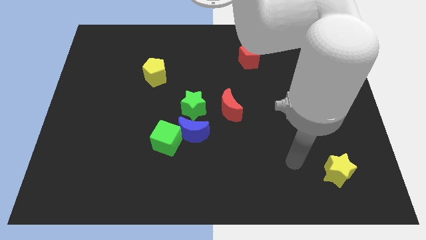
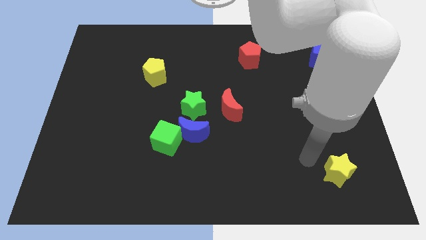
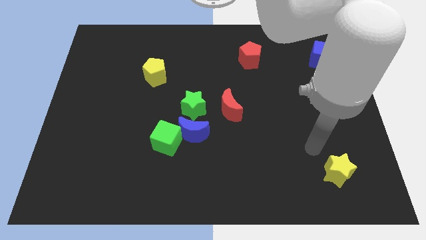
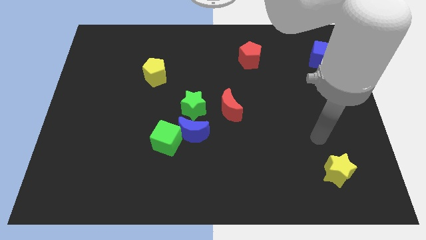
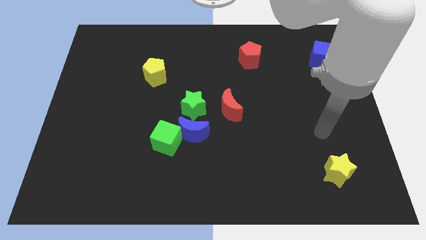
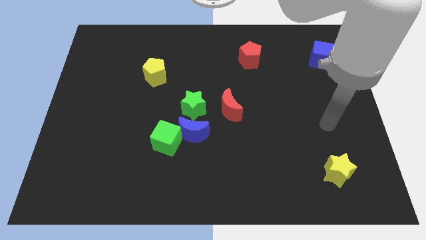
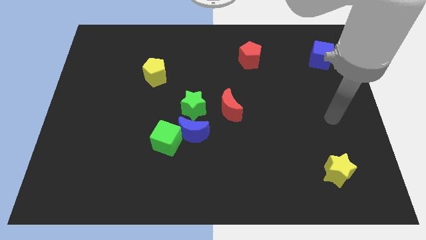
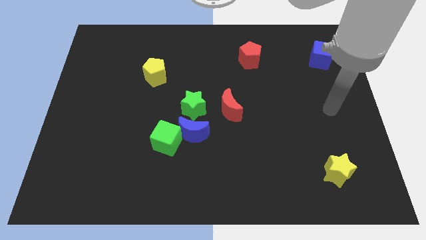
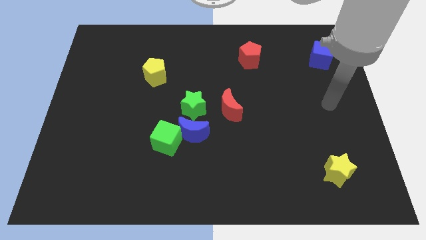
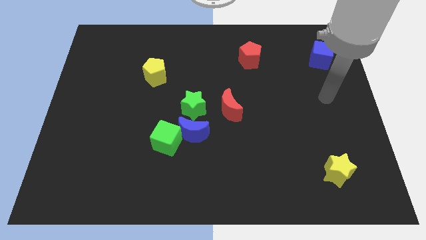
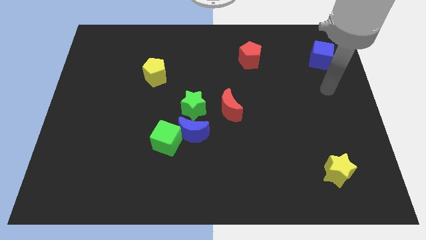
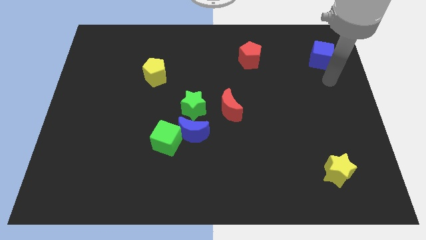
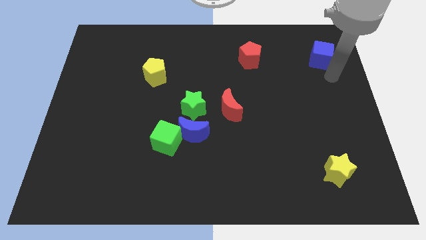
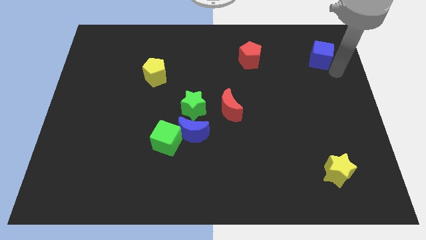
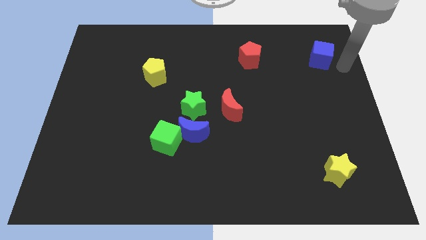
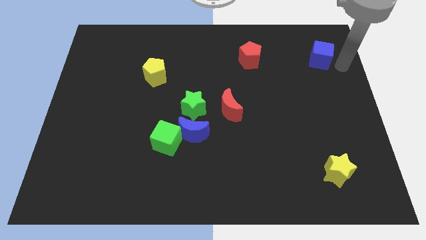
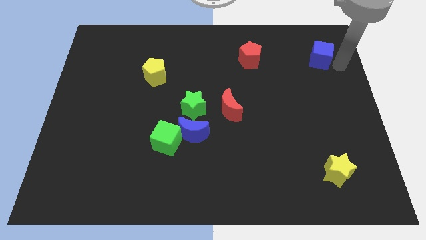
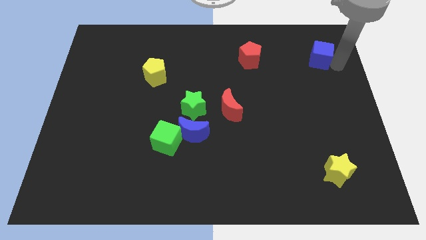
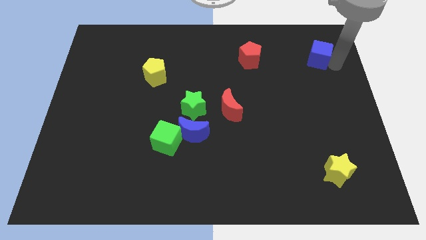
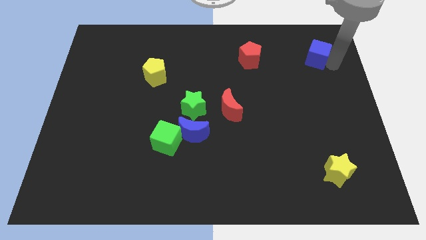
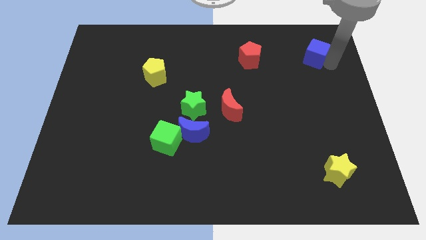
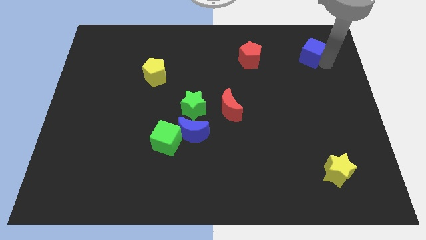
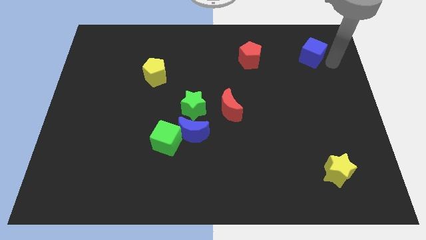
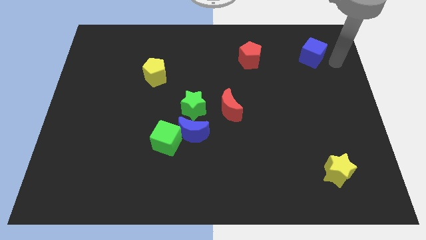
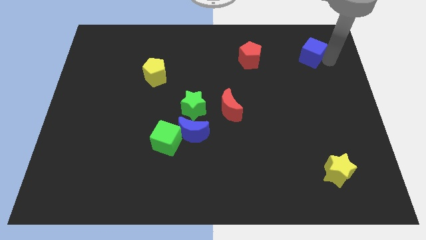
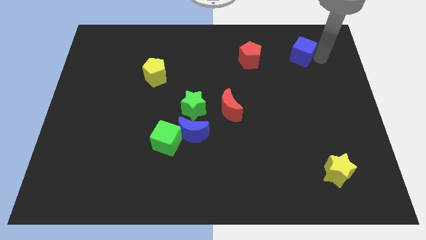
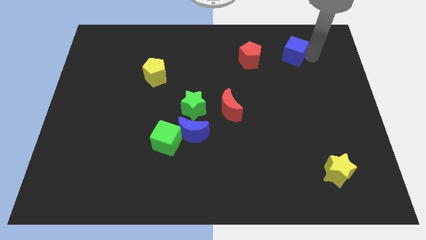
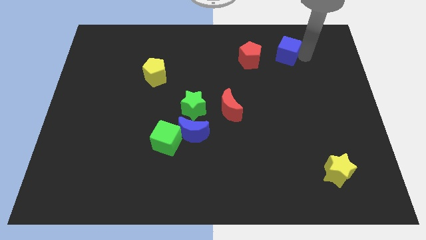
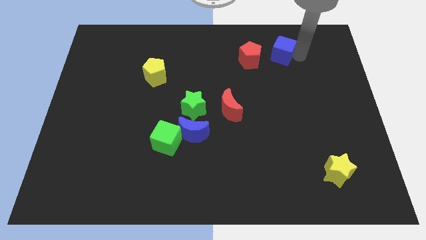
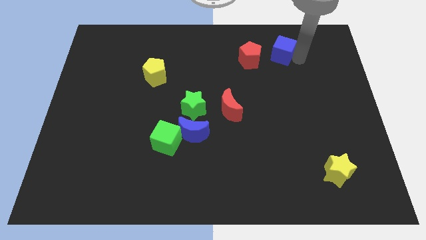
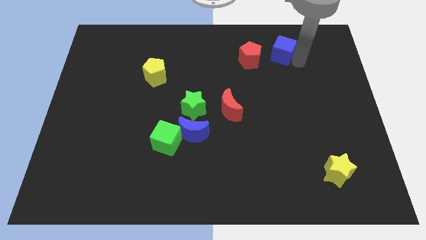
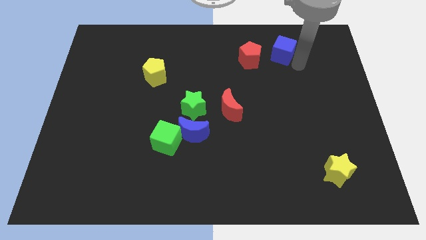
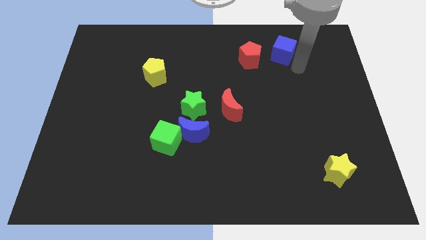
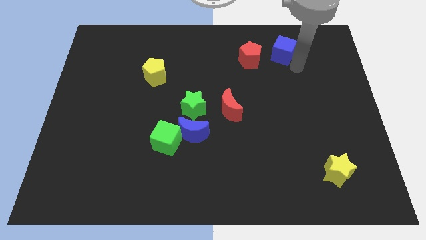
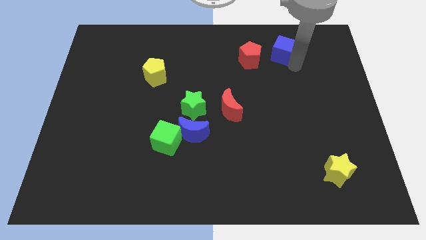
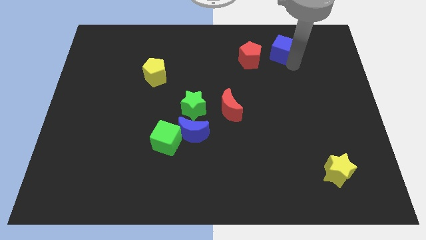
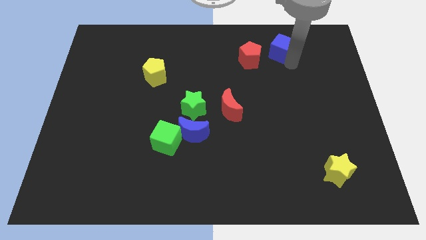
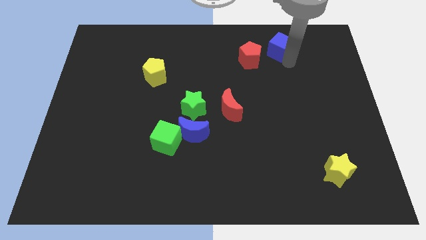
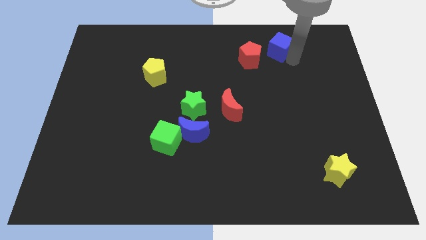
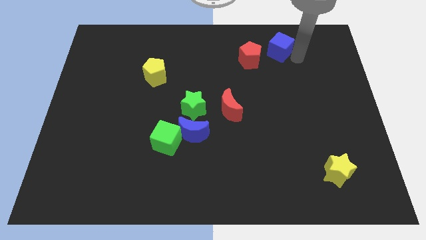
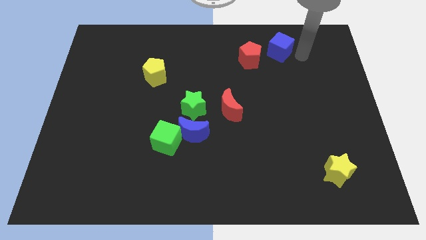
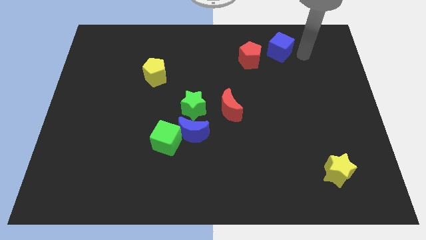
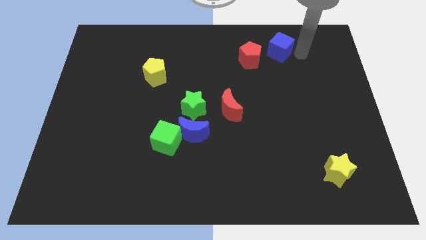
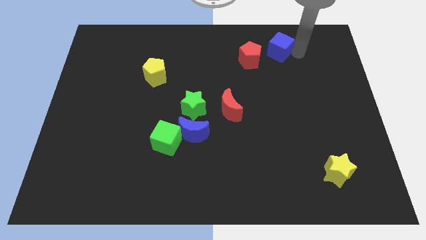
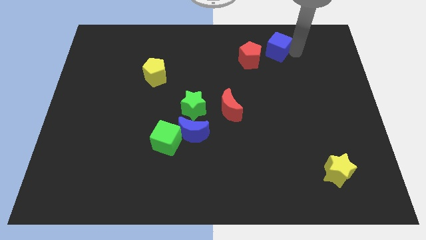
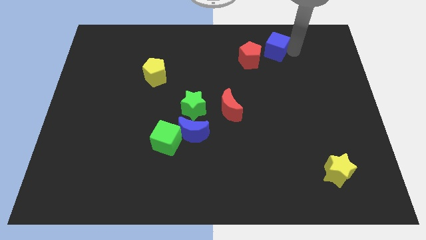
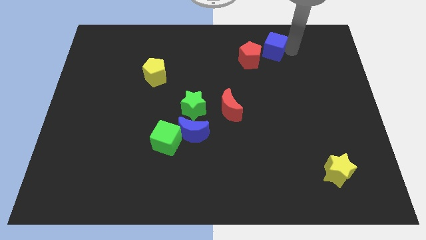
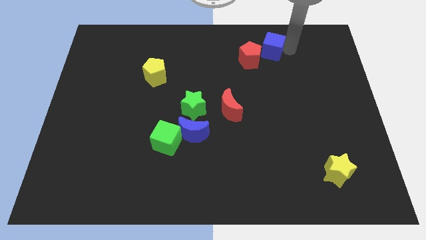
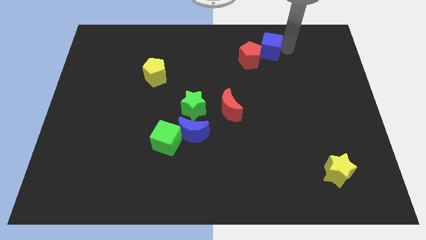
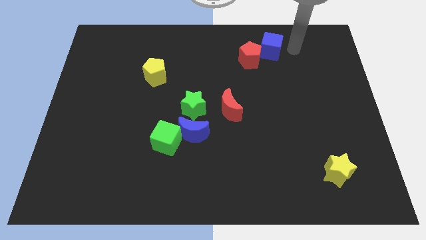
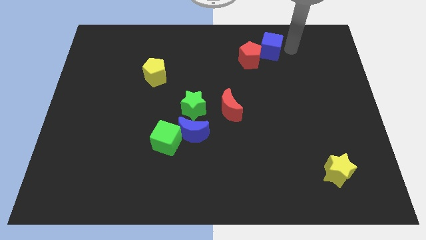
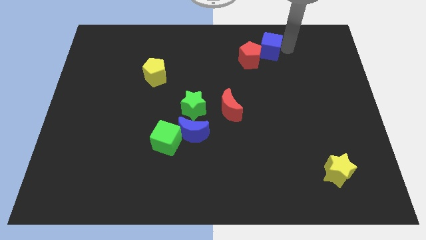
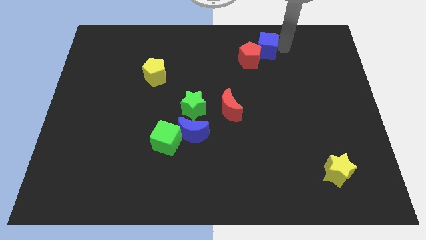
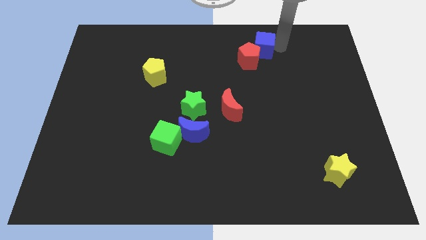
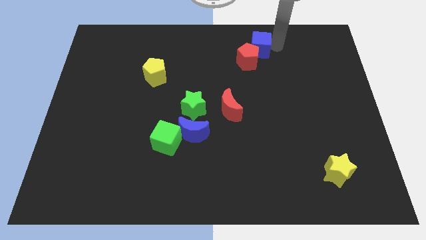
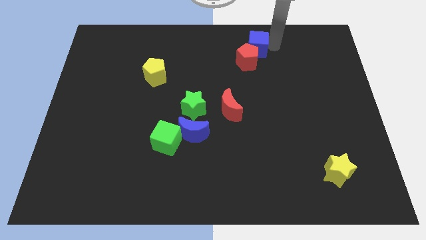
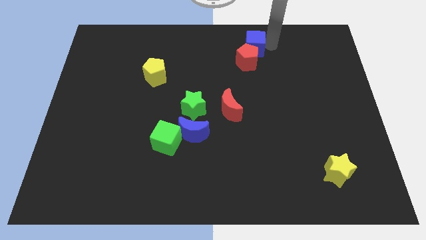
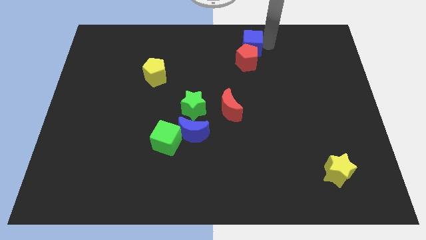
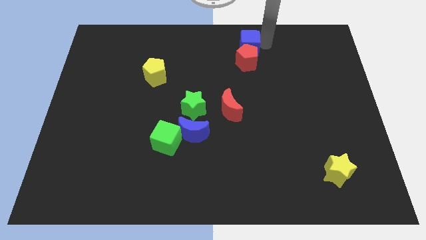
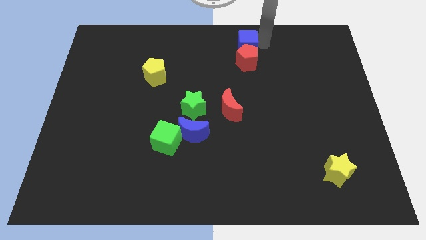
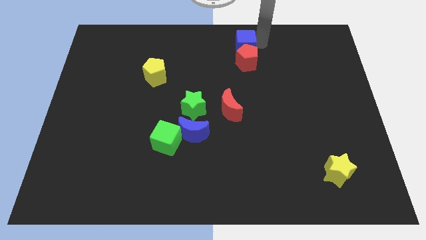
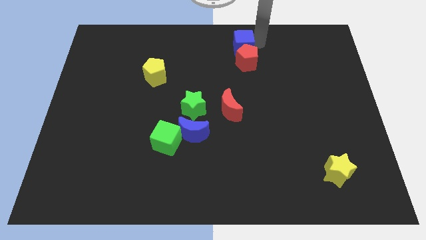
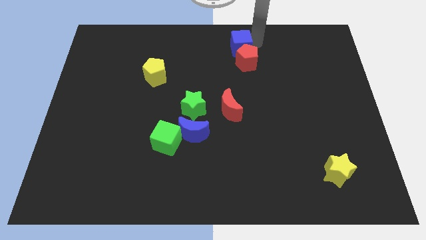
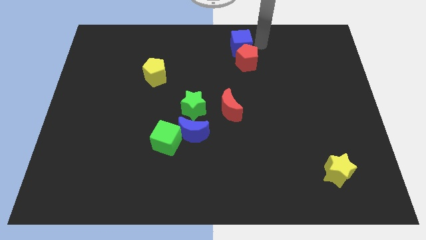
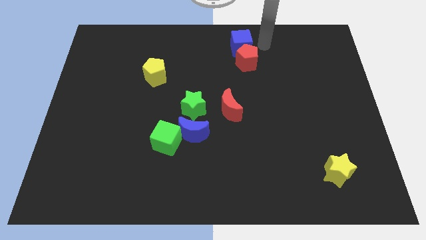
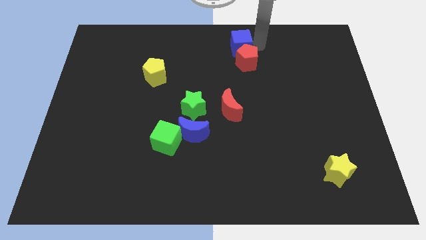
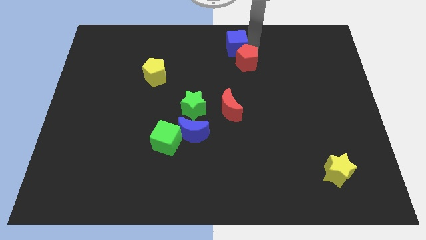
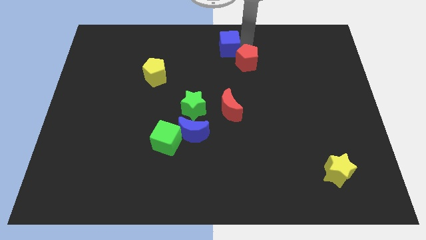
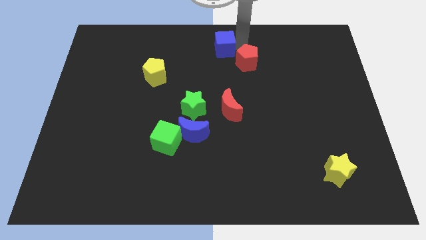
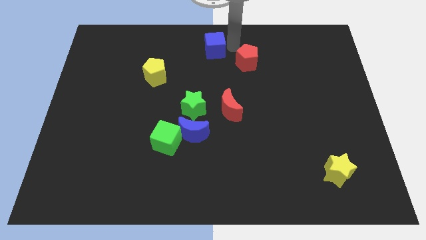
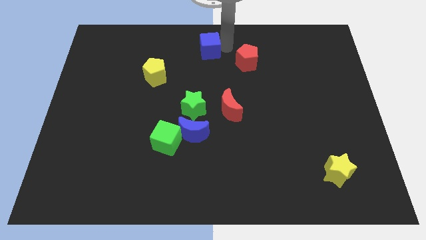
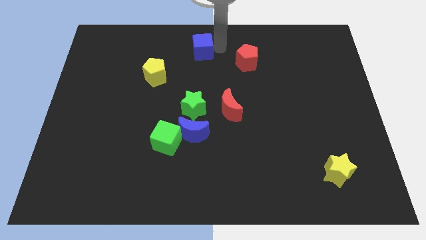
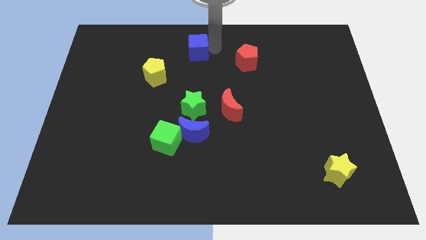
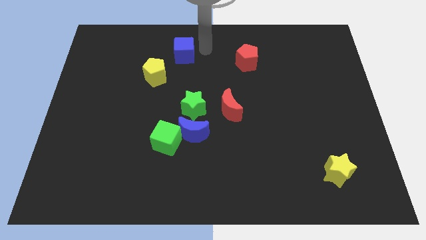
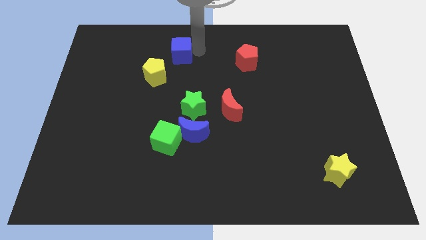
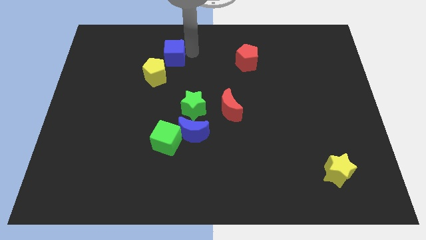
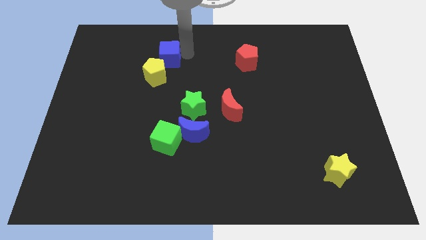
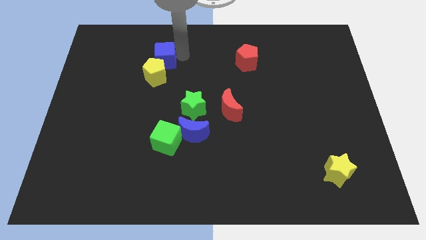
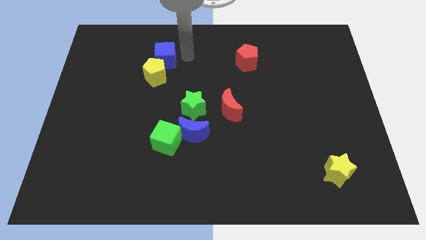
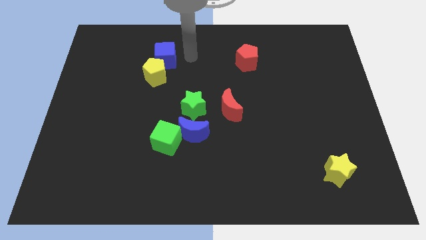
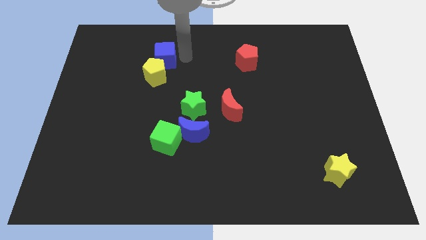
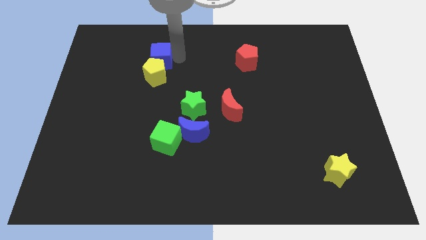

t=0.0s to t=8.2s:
push the blue cube to the top left side of the yellow pentagon
